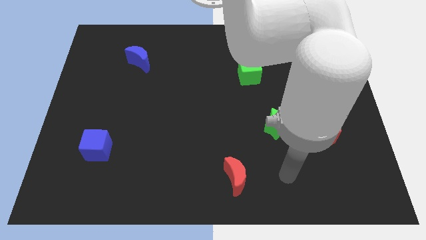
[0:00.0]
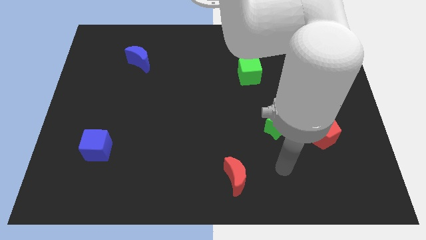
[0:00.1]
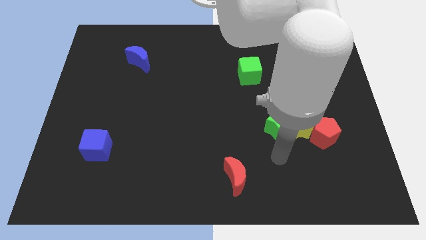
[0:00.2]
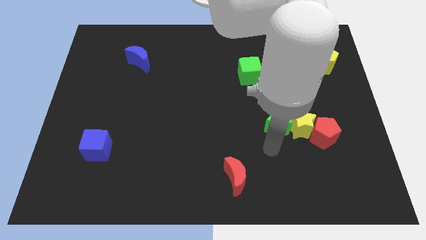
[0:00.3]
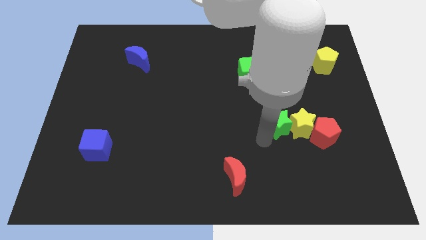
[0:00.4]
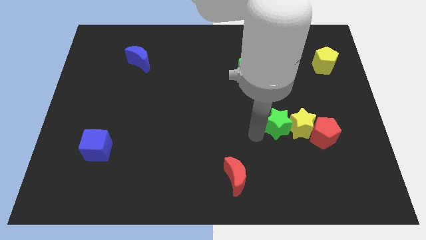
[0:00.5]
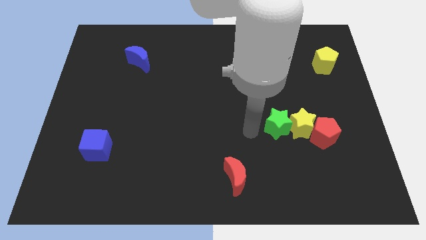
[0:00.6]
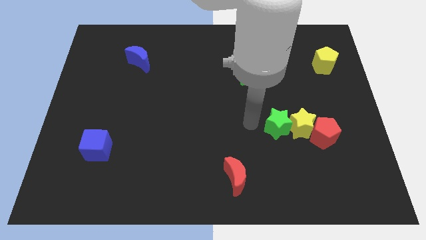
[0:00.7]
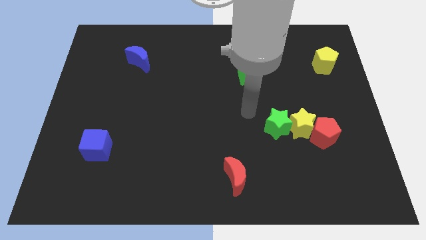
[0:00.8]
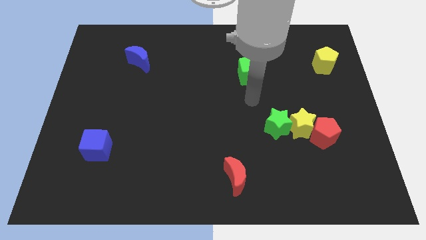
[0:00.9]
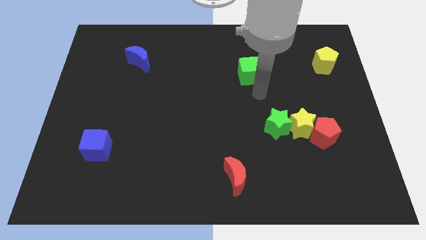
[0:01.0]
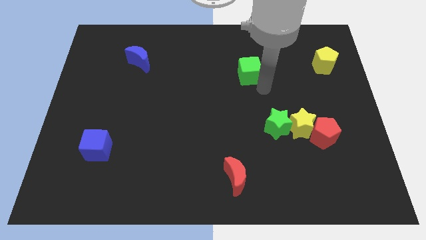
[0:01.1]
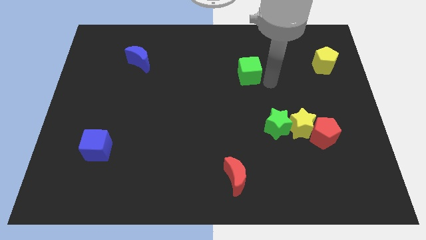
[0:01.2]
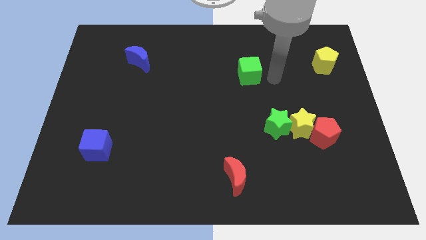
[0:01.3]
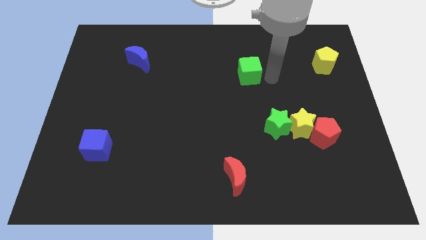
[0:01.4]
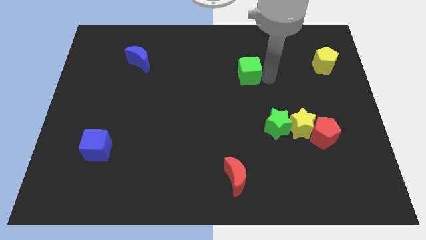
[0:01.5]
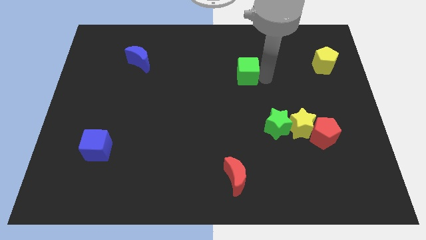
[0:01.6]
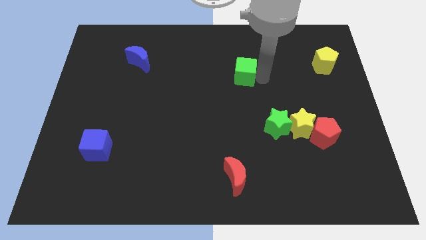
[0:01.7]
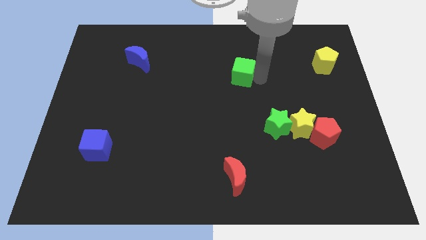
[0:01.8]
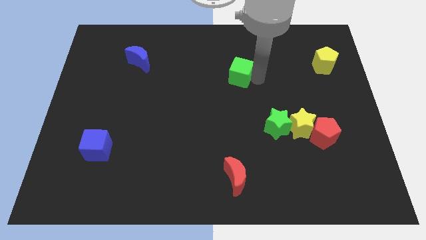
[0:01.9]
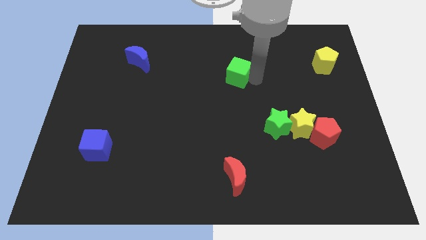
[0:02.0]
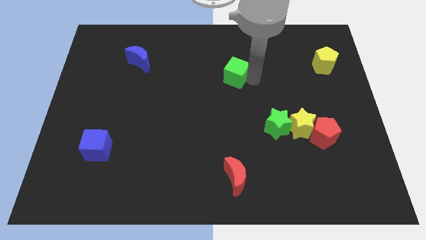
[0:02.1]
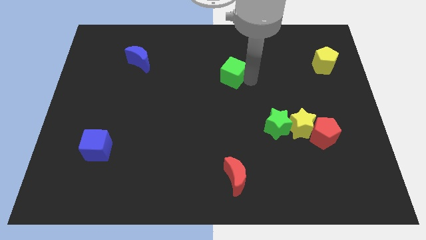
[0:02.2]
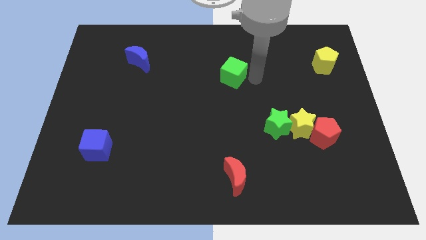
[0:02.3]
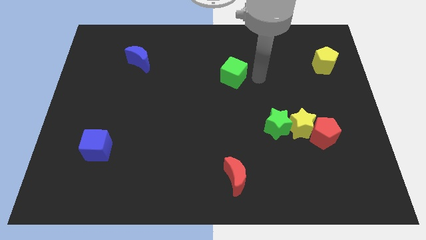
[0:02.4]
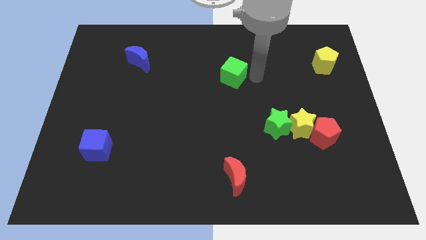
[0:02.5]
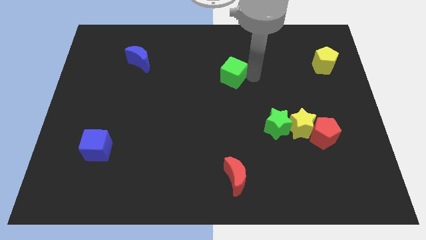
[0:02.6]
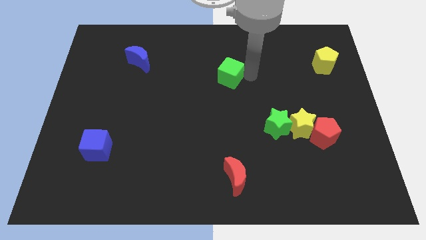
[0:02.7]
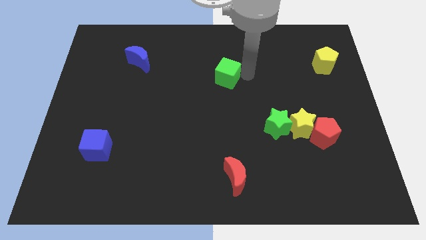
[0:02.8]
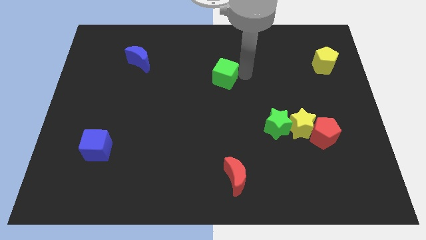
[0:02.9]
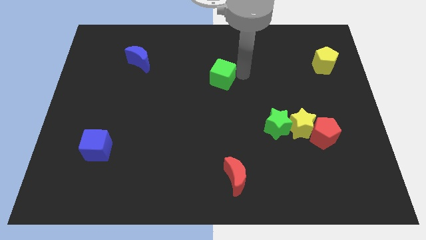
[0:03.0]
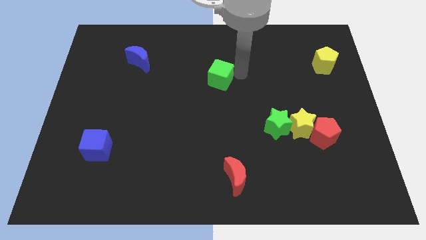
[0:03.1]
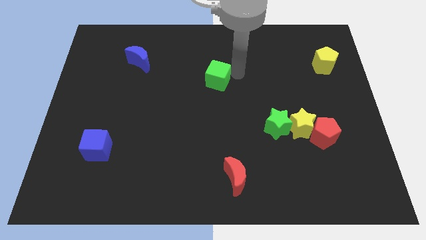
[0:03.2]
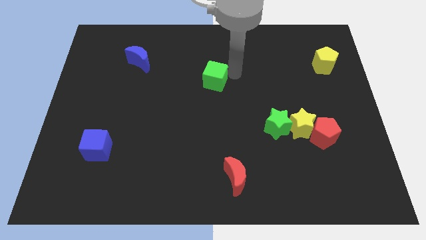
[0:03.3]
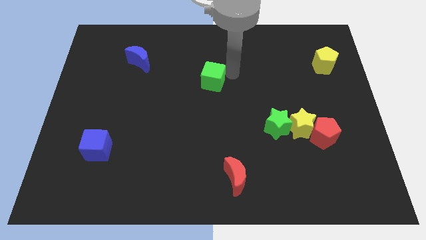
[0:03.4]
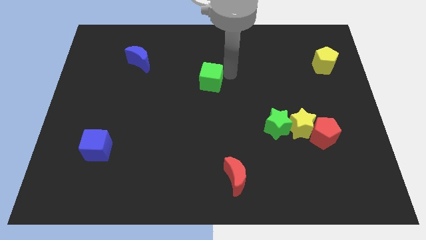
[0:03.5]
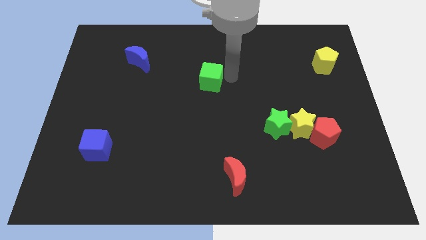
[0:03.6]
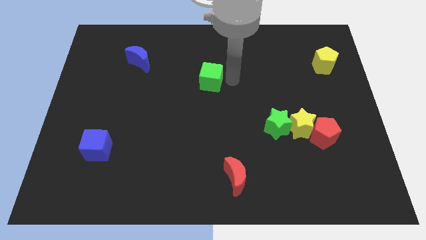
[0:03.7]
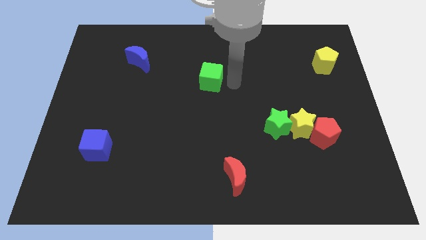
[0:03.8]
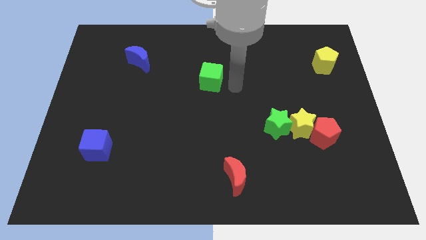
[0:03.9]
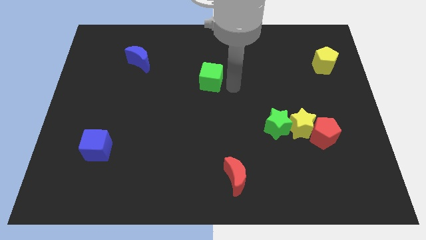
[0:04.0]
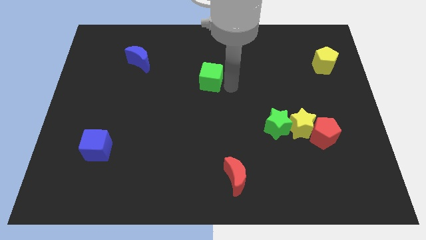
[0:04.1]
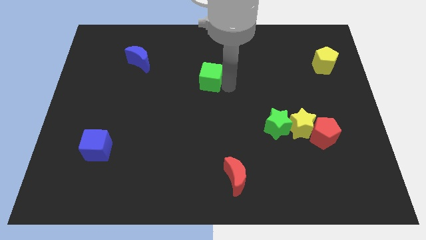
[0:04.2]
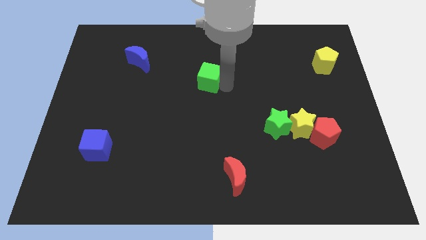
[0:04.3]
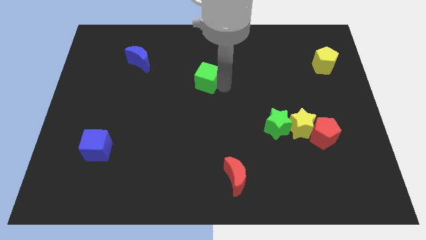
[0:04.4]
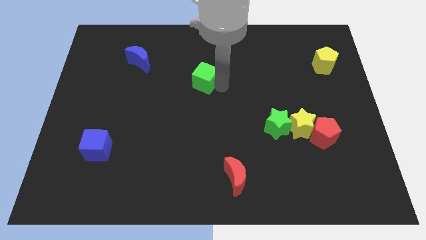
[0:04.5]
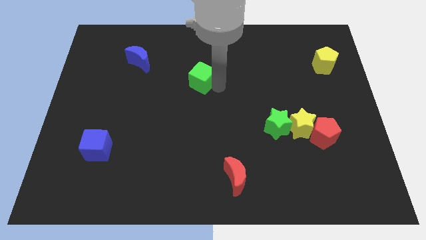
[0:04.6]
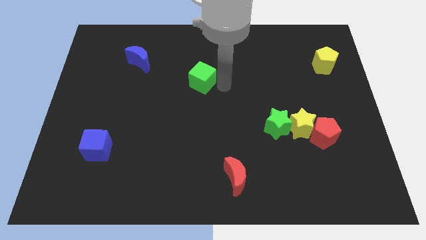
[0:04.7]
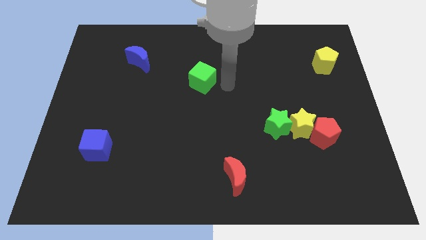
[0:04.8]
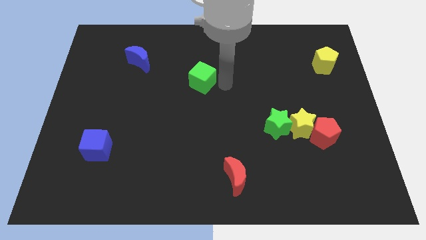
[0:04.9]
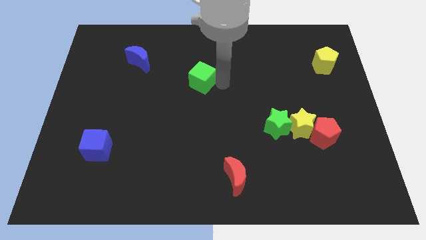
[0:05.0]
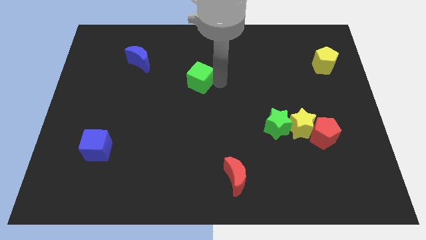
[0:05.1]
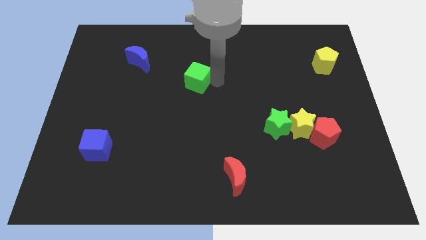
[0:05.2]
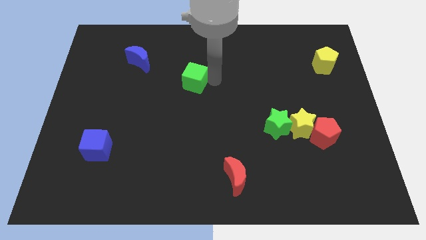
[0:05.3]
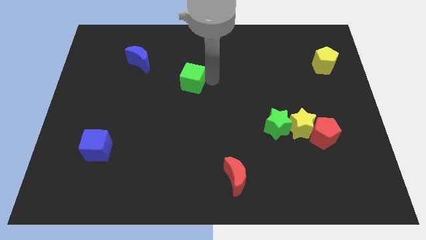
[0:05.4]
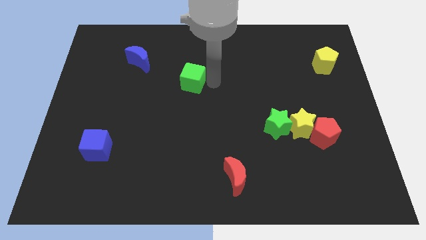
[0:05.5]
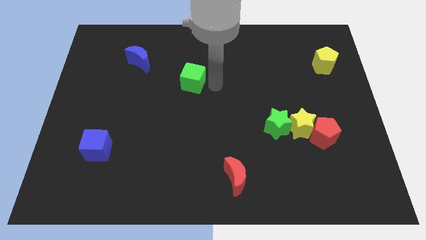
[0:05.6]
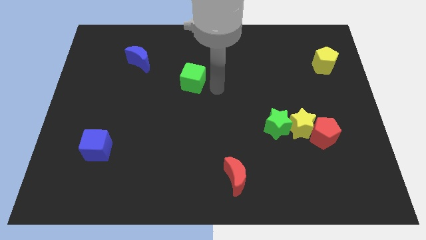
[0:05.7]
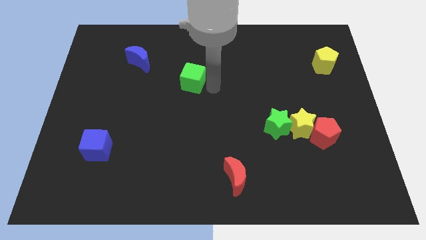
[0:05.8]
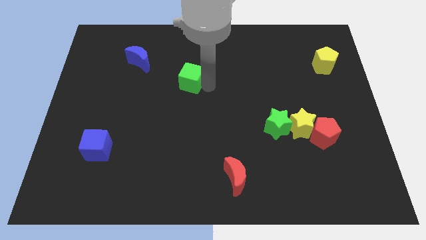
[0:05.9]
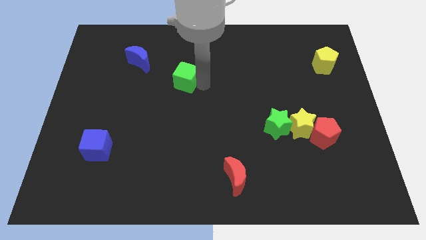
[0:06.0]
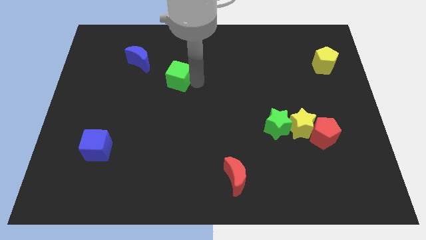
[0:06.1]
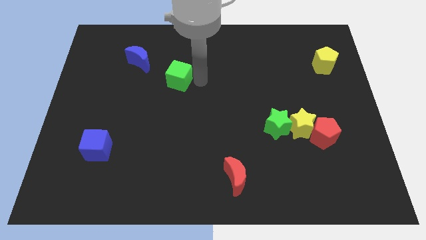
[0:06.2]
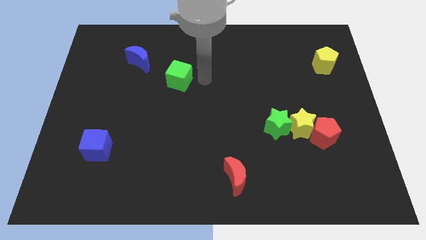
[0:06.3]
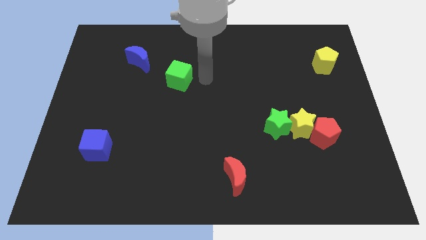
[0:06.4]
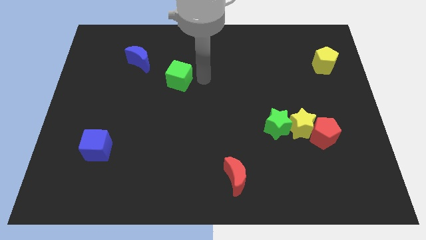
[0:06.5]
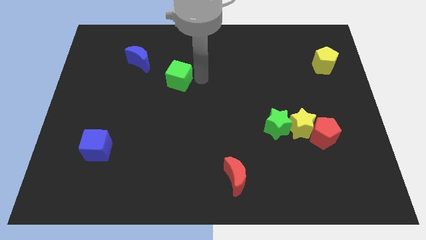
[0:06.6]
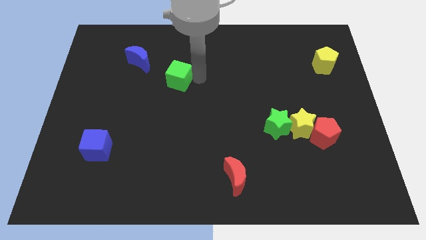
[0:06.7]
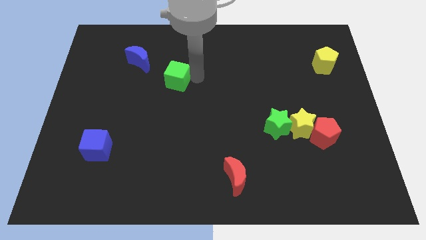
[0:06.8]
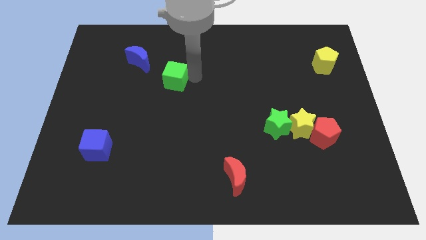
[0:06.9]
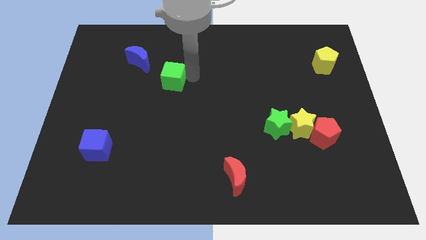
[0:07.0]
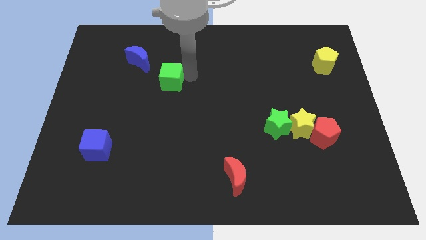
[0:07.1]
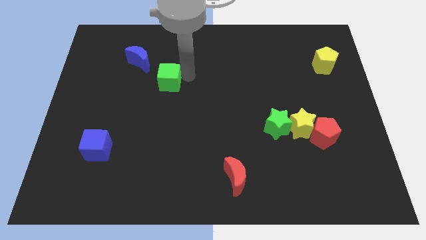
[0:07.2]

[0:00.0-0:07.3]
slide the green cube left

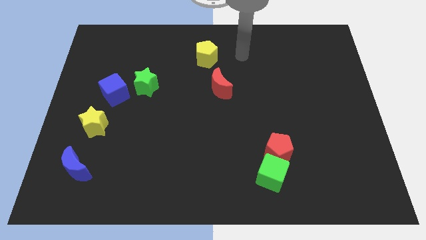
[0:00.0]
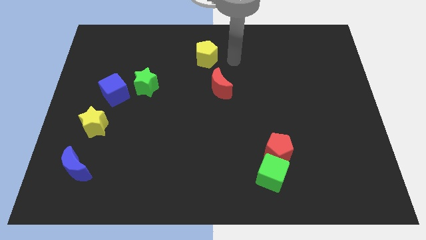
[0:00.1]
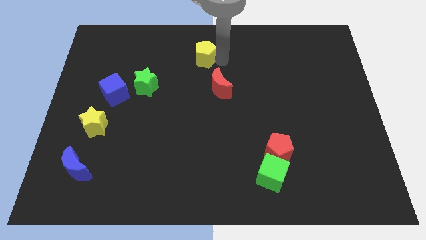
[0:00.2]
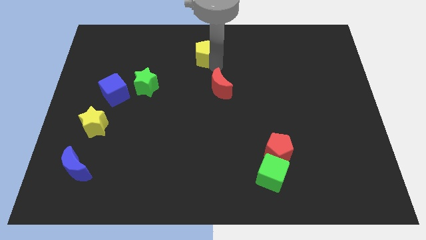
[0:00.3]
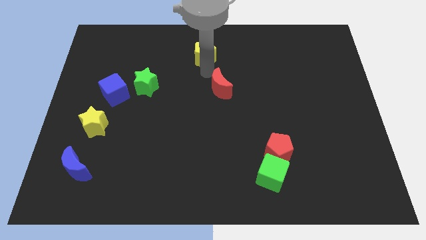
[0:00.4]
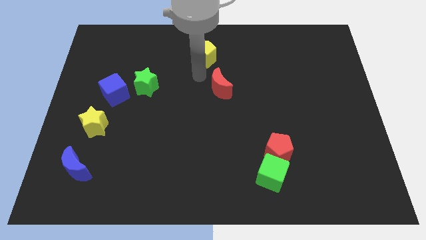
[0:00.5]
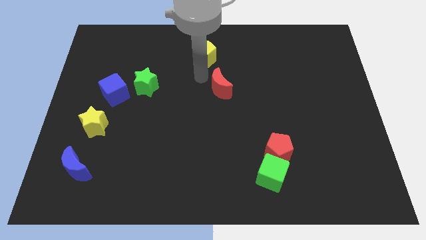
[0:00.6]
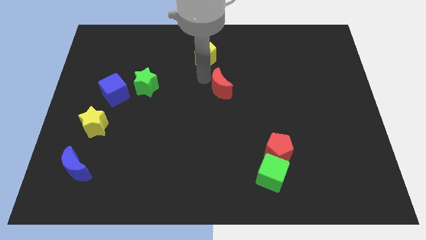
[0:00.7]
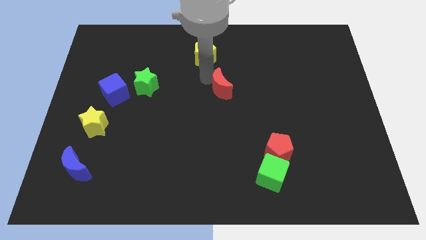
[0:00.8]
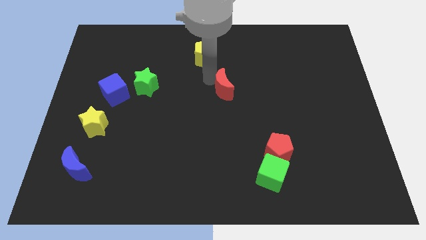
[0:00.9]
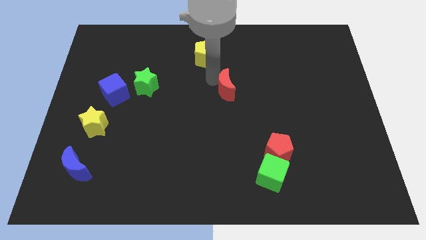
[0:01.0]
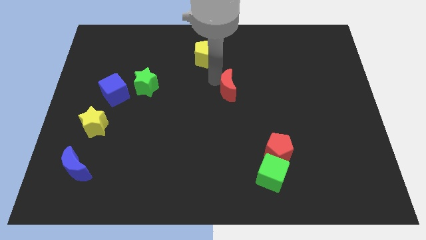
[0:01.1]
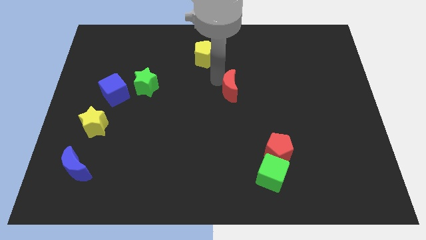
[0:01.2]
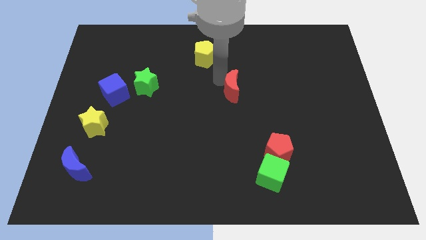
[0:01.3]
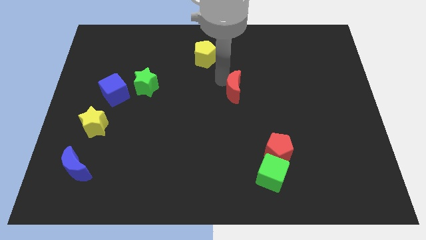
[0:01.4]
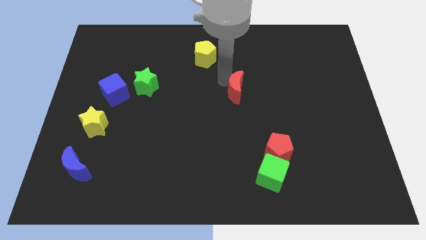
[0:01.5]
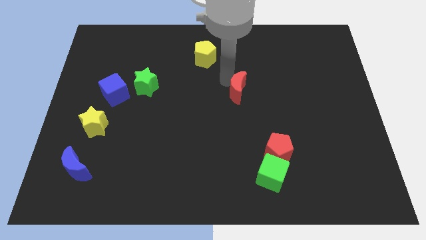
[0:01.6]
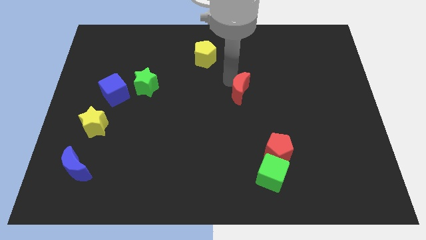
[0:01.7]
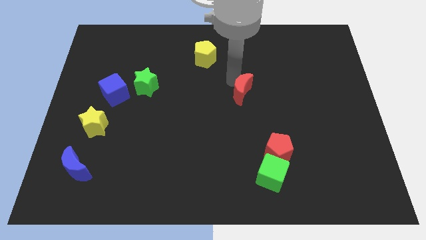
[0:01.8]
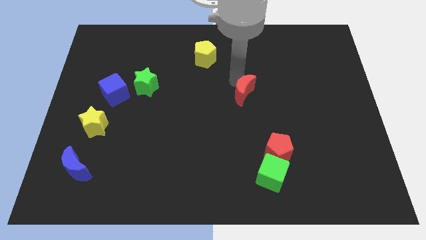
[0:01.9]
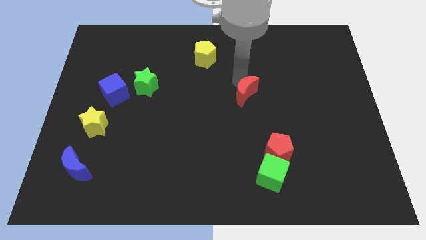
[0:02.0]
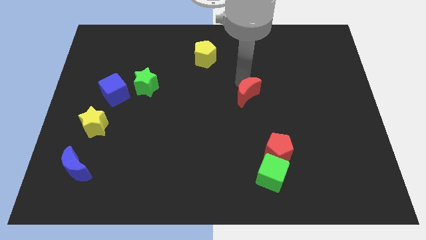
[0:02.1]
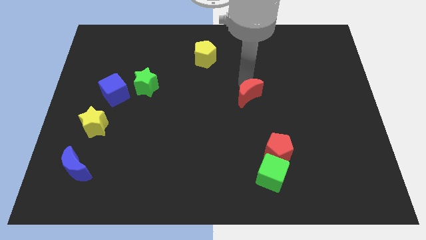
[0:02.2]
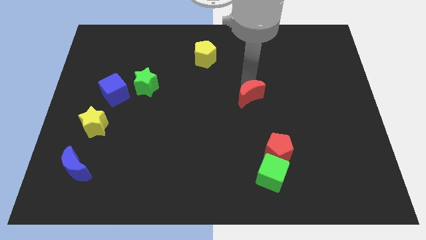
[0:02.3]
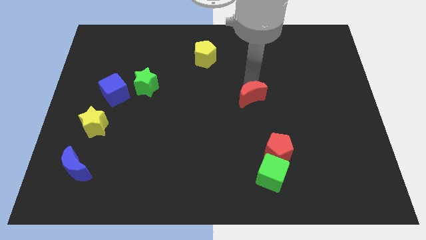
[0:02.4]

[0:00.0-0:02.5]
push the red moon down and then right slightly
